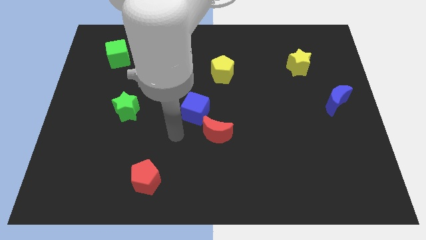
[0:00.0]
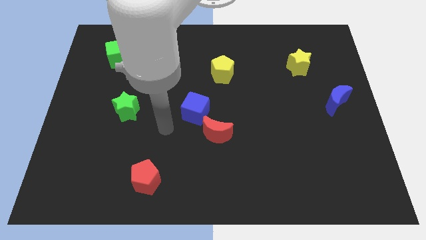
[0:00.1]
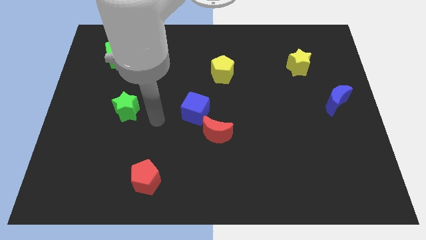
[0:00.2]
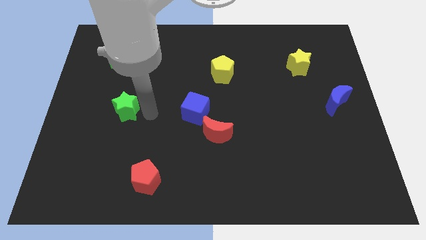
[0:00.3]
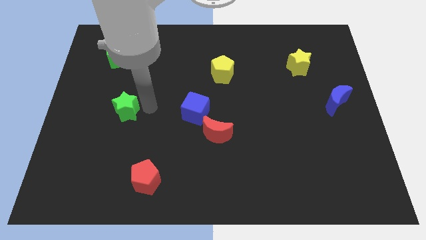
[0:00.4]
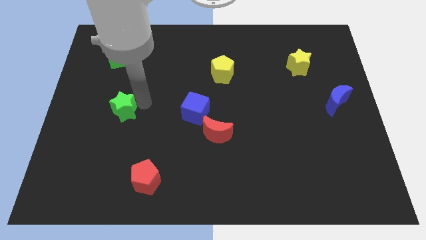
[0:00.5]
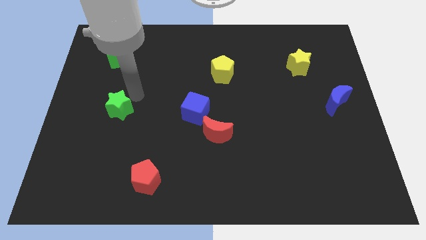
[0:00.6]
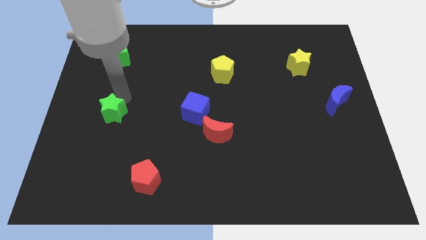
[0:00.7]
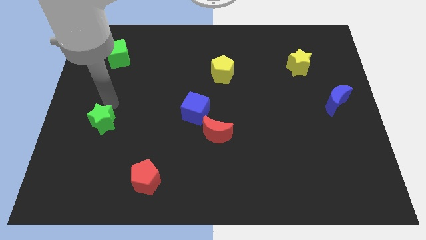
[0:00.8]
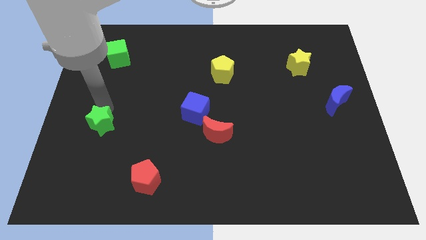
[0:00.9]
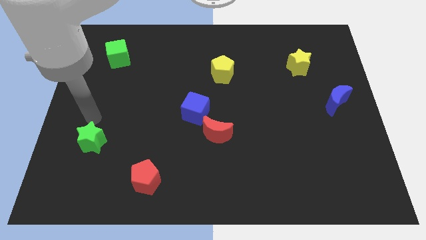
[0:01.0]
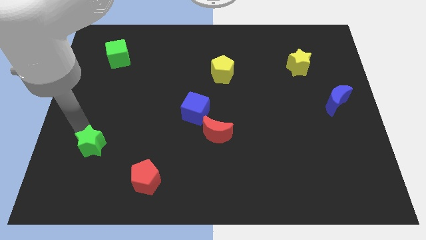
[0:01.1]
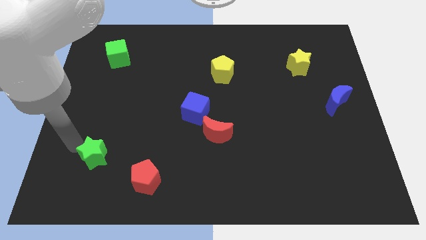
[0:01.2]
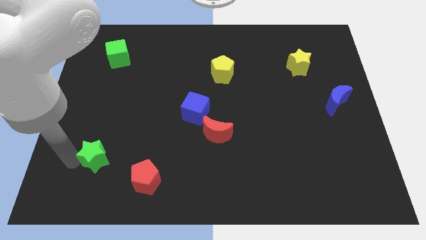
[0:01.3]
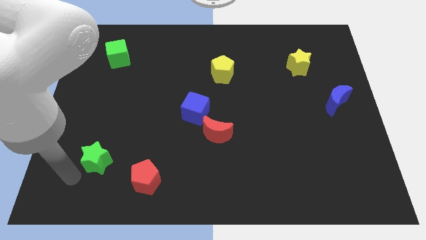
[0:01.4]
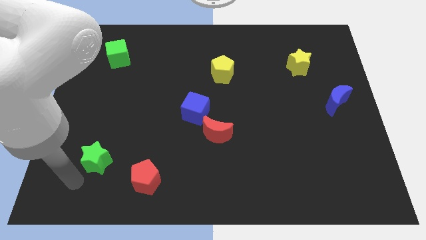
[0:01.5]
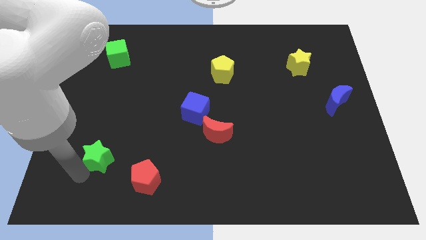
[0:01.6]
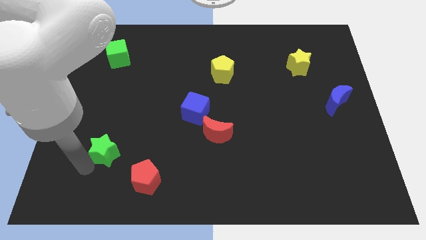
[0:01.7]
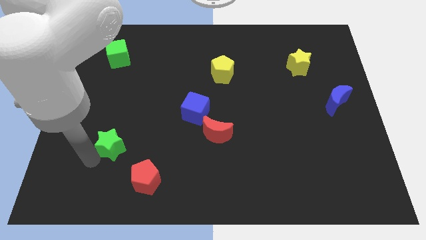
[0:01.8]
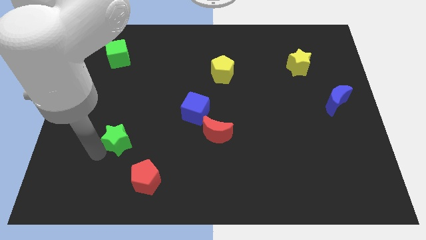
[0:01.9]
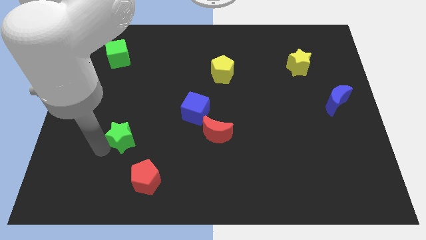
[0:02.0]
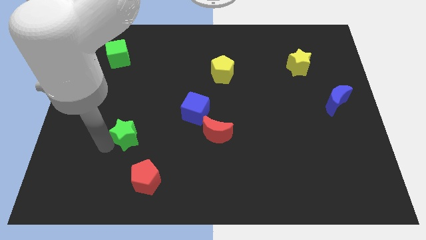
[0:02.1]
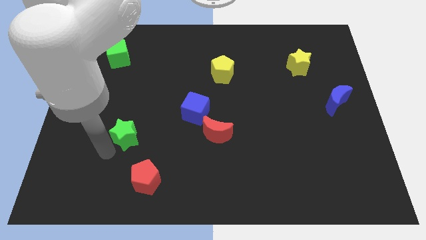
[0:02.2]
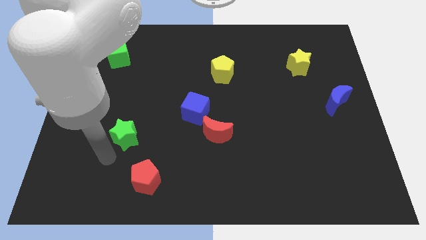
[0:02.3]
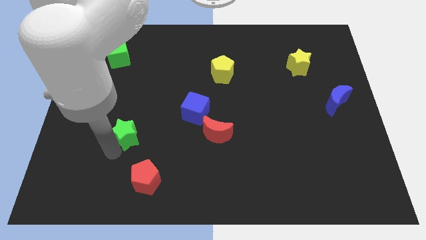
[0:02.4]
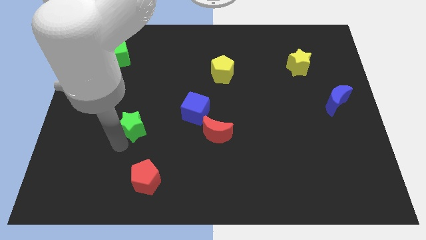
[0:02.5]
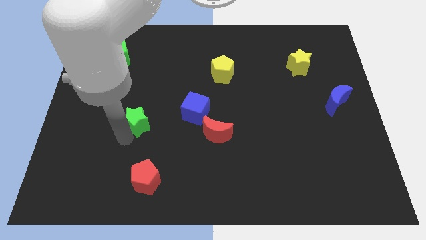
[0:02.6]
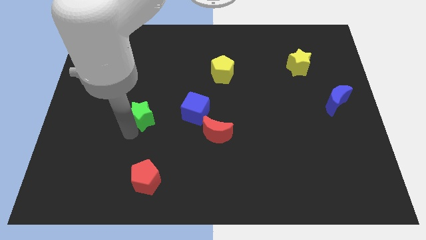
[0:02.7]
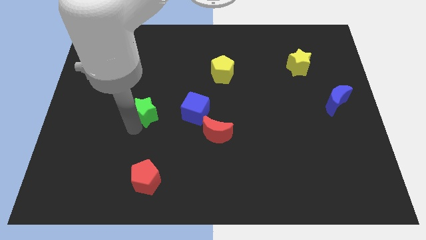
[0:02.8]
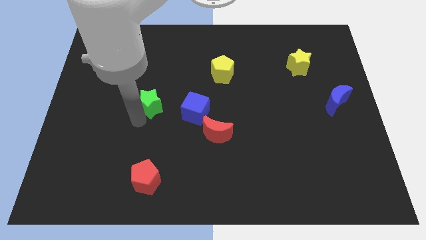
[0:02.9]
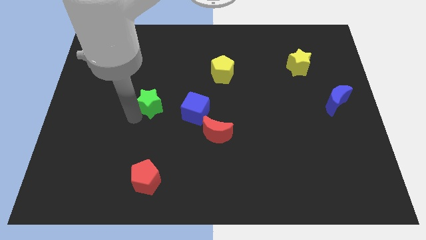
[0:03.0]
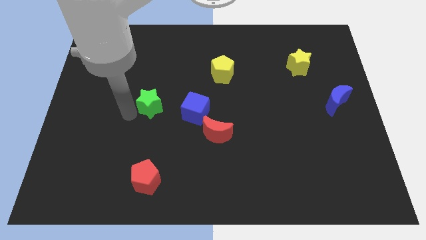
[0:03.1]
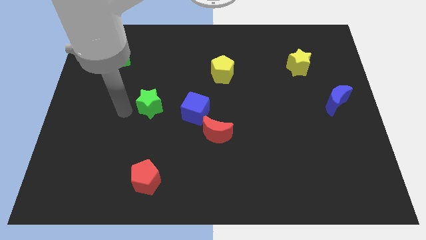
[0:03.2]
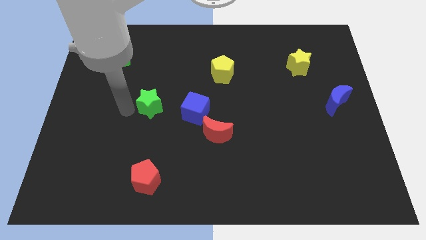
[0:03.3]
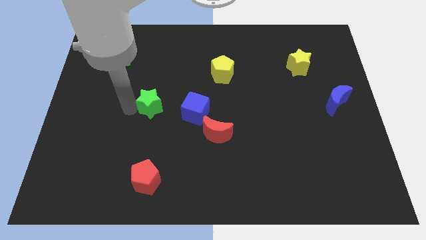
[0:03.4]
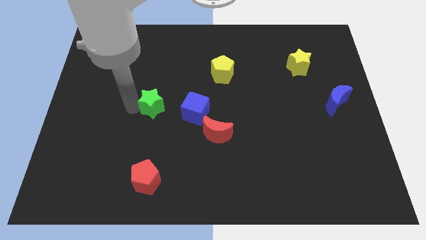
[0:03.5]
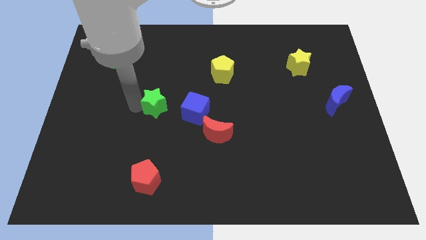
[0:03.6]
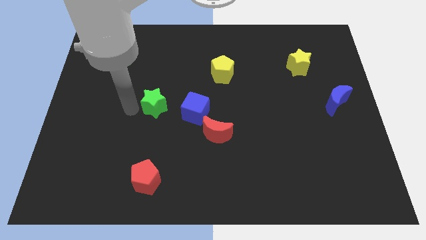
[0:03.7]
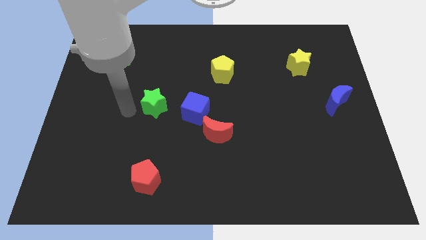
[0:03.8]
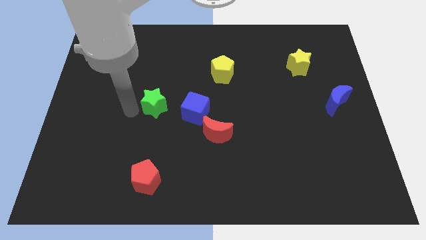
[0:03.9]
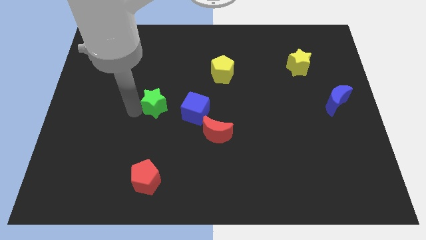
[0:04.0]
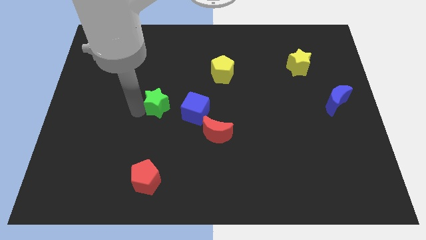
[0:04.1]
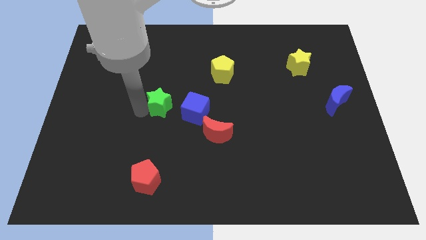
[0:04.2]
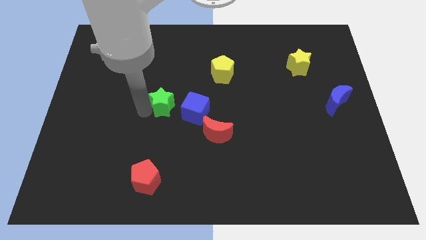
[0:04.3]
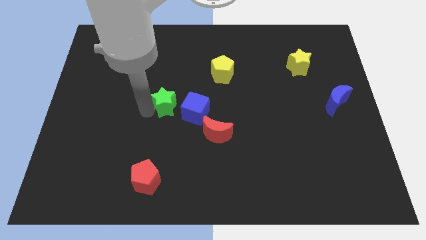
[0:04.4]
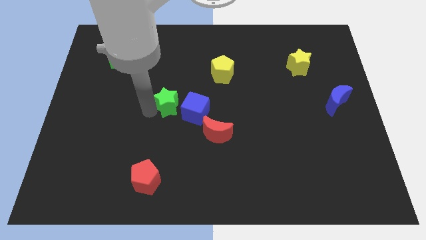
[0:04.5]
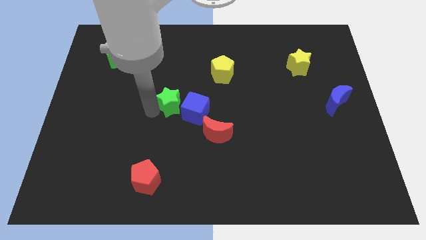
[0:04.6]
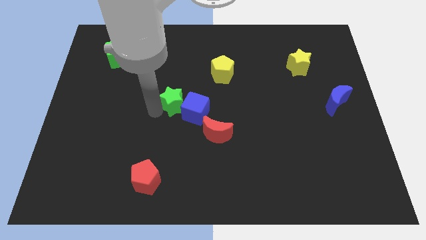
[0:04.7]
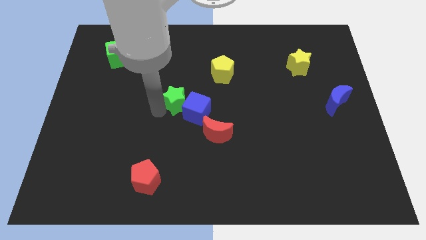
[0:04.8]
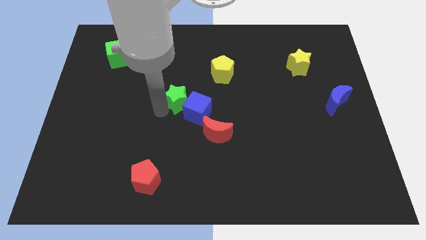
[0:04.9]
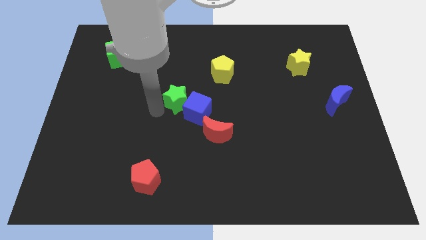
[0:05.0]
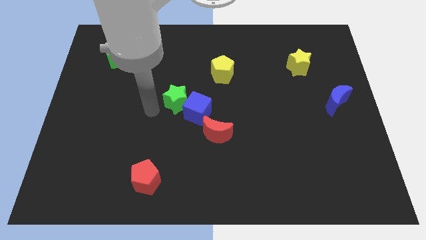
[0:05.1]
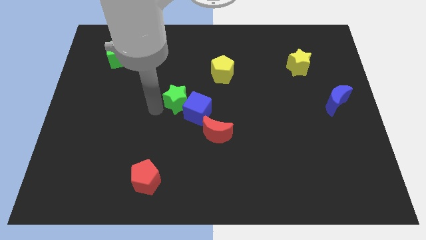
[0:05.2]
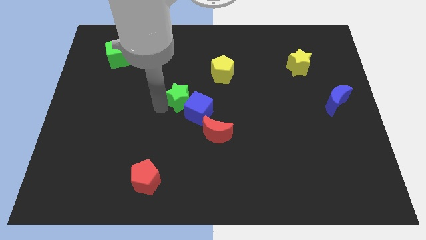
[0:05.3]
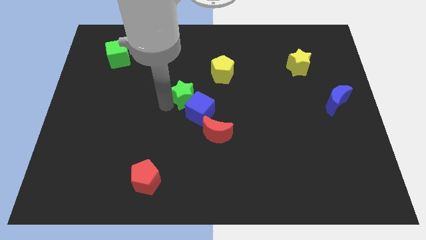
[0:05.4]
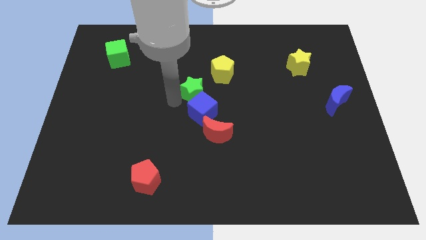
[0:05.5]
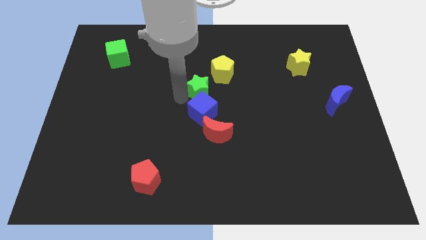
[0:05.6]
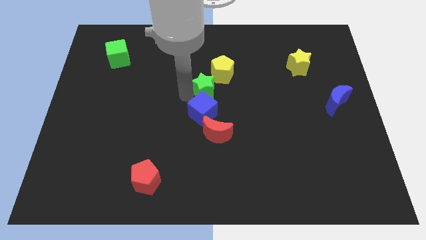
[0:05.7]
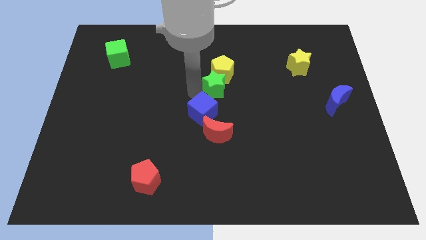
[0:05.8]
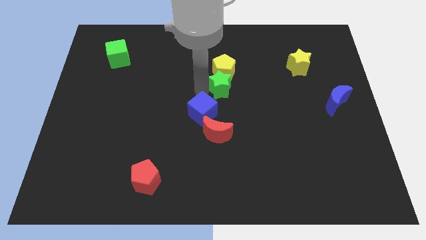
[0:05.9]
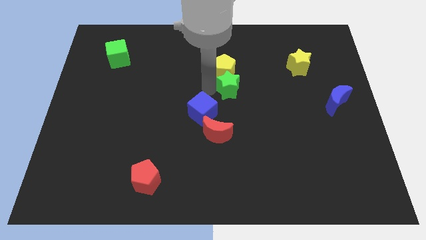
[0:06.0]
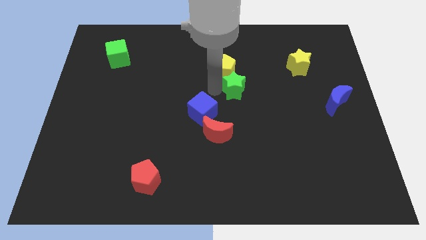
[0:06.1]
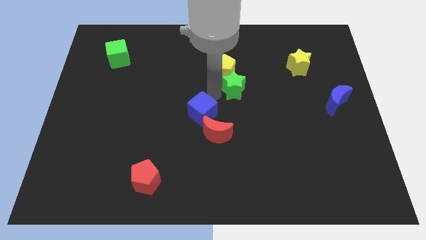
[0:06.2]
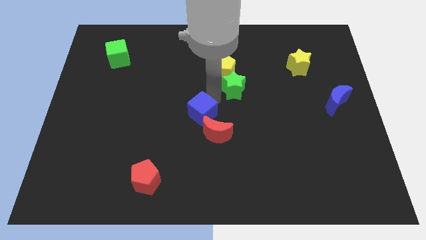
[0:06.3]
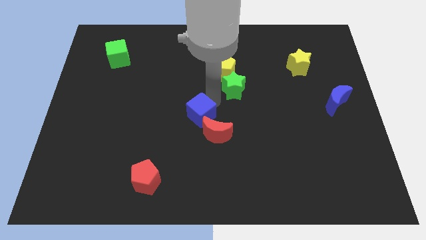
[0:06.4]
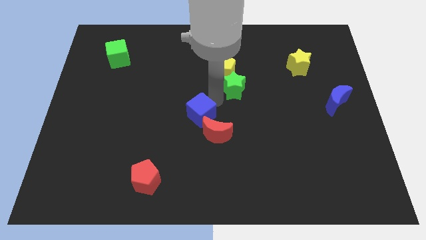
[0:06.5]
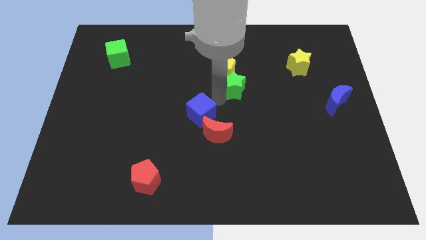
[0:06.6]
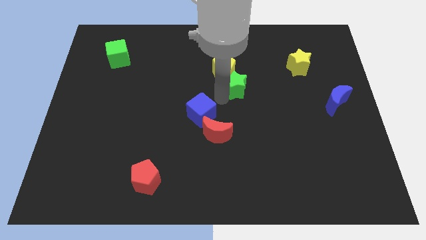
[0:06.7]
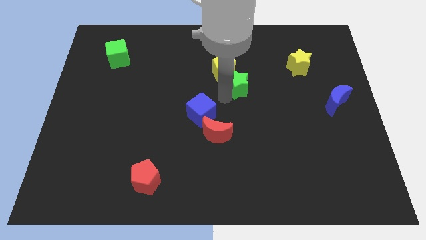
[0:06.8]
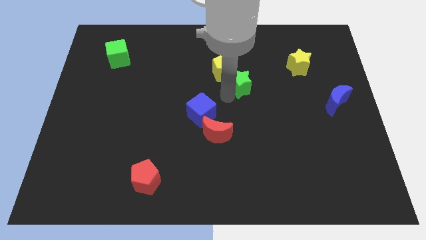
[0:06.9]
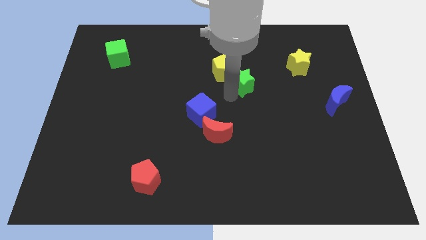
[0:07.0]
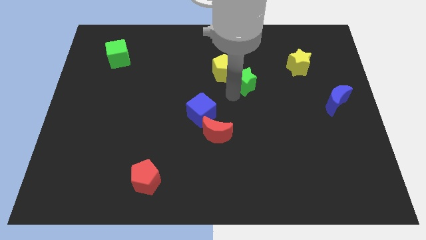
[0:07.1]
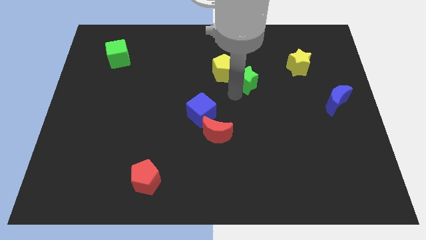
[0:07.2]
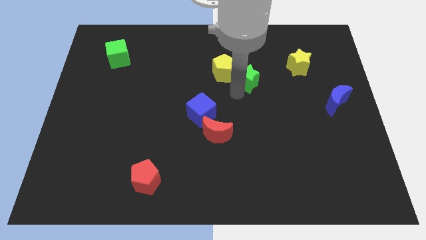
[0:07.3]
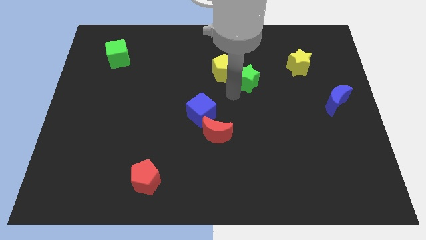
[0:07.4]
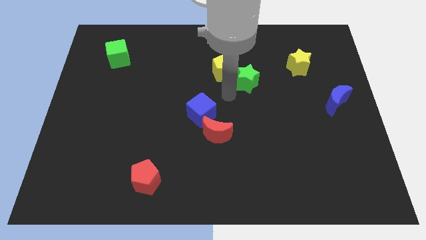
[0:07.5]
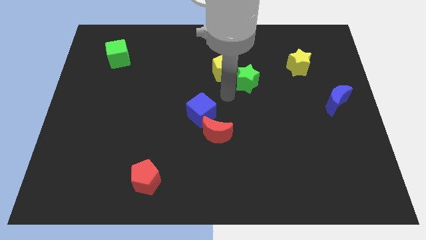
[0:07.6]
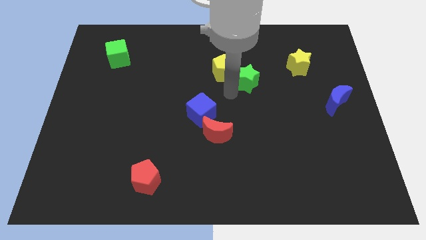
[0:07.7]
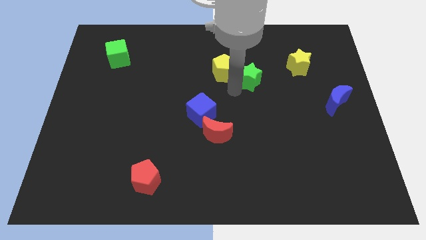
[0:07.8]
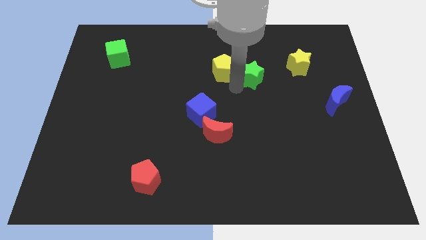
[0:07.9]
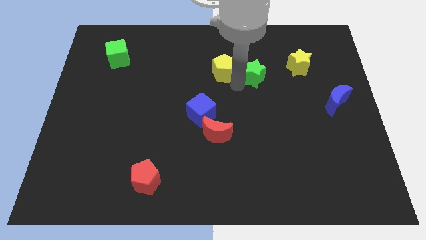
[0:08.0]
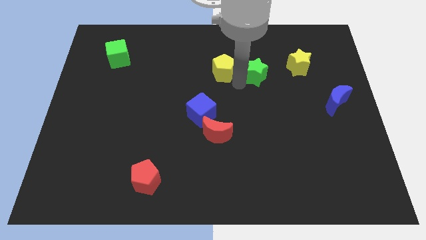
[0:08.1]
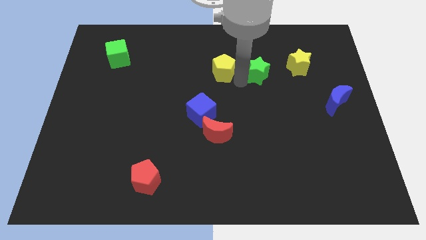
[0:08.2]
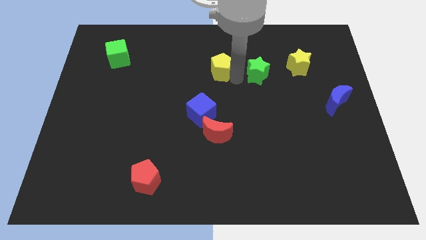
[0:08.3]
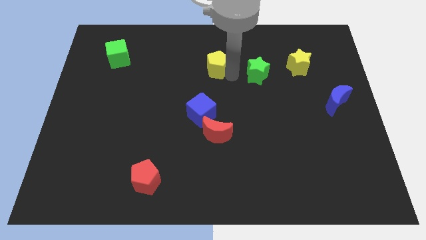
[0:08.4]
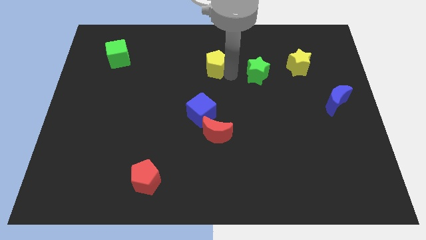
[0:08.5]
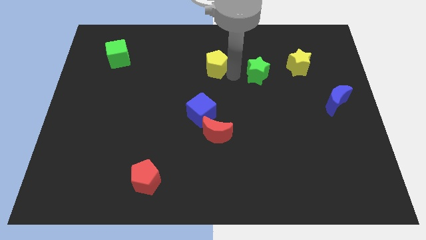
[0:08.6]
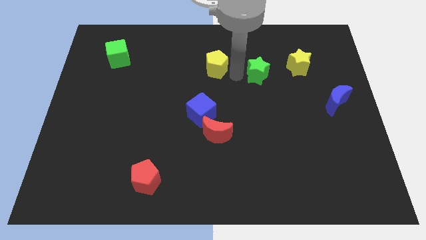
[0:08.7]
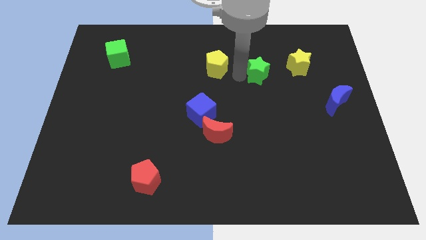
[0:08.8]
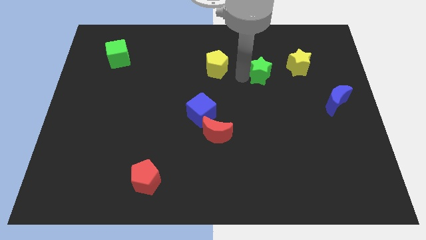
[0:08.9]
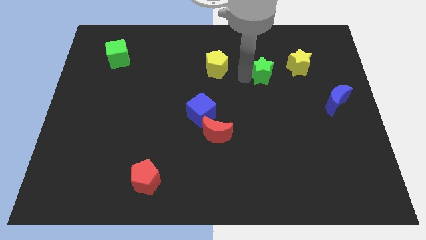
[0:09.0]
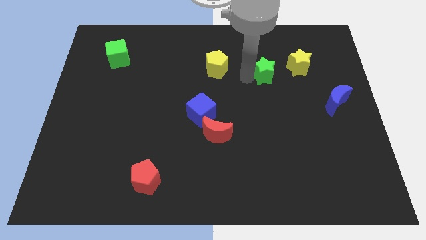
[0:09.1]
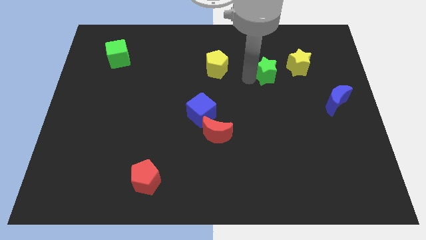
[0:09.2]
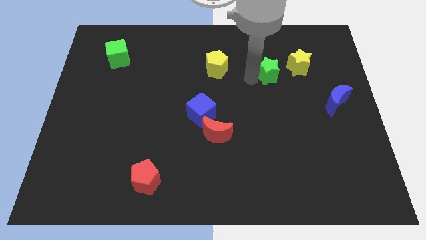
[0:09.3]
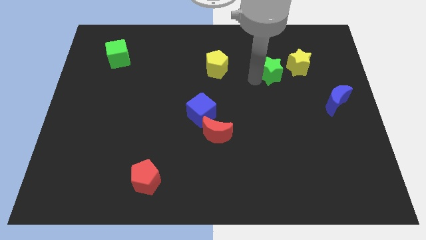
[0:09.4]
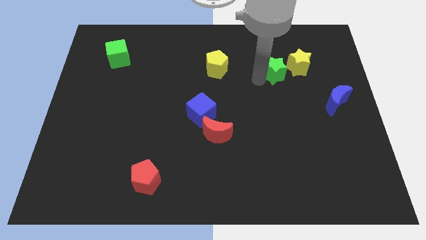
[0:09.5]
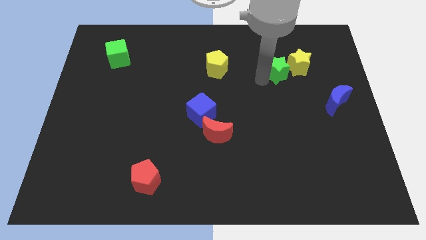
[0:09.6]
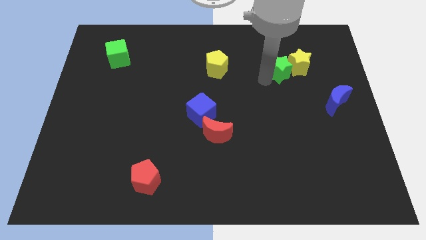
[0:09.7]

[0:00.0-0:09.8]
slide the green star next to the yellow star
